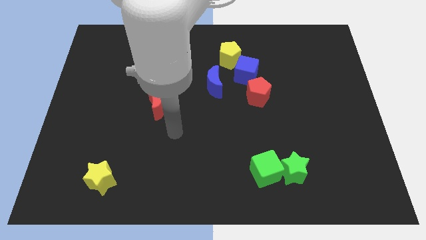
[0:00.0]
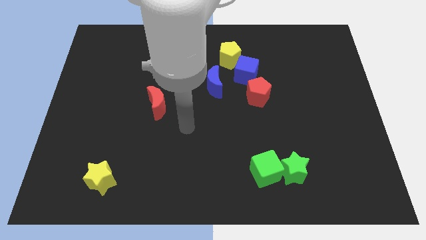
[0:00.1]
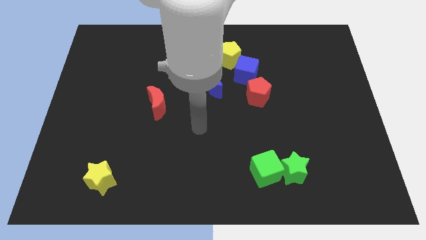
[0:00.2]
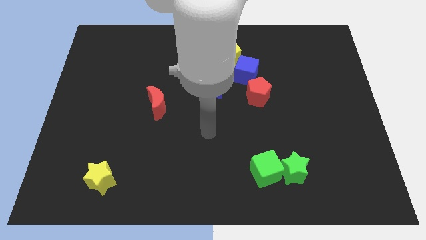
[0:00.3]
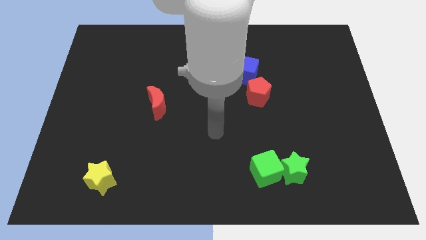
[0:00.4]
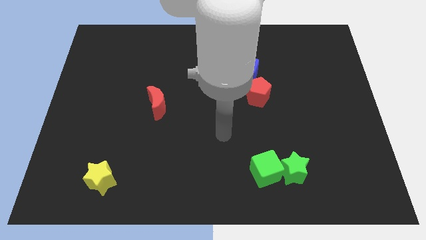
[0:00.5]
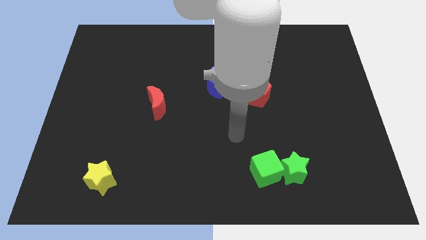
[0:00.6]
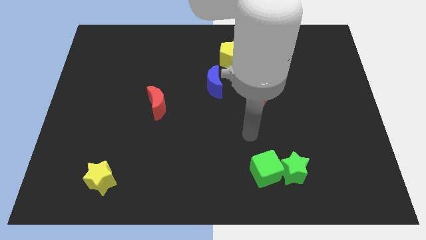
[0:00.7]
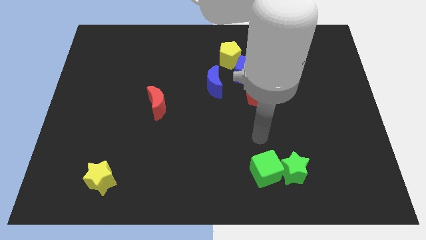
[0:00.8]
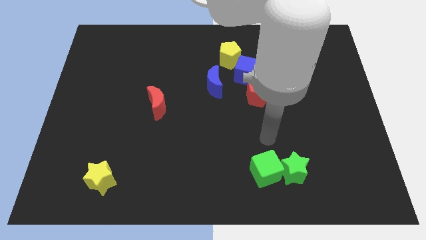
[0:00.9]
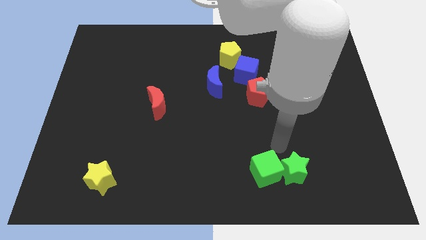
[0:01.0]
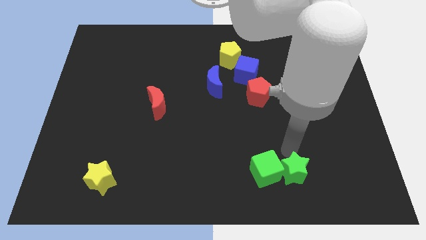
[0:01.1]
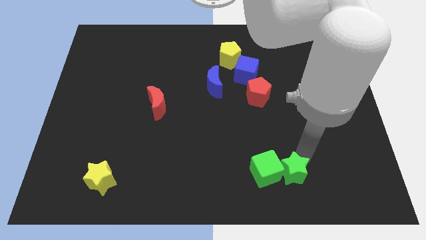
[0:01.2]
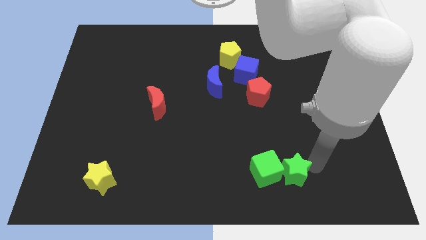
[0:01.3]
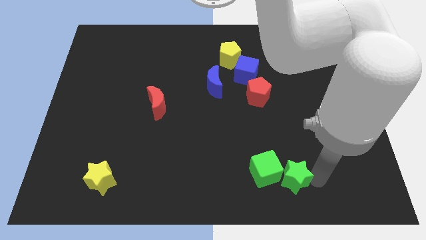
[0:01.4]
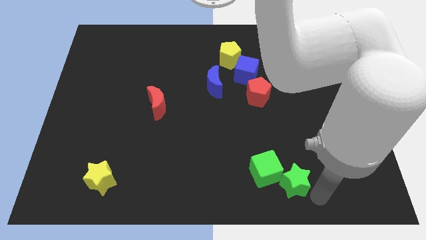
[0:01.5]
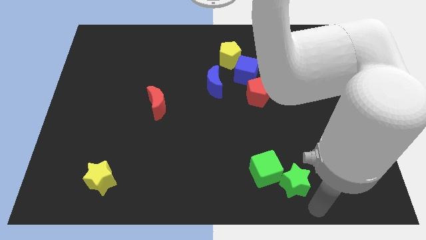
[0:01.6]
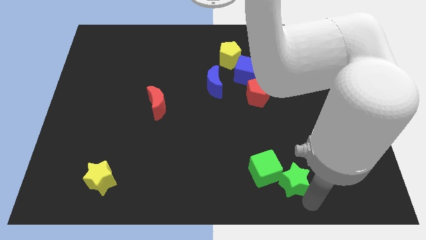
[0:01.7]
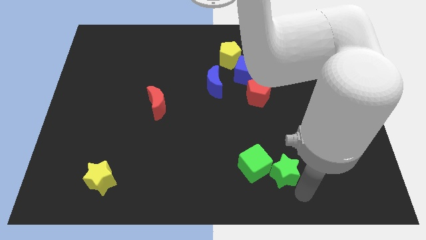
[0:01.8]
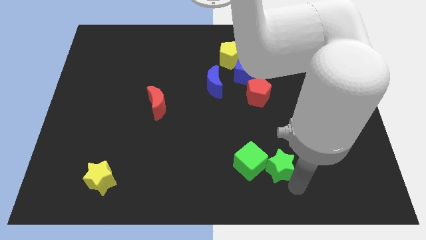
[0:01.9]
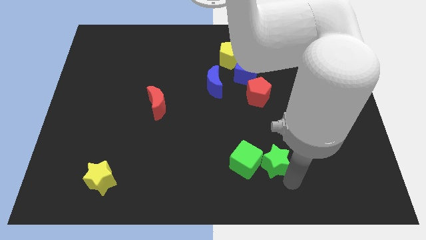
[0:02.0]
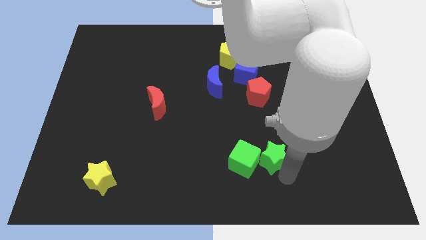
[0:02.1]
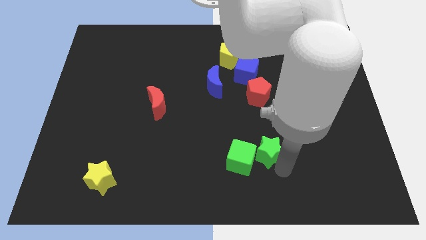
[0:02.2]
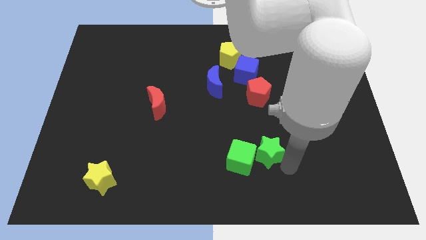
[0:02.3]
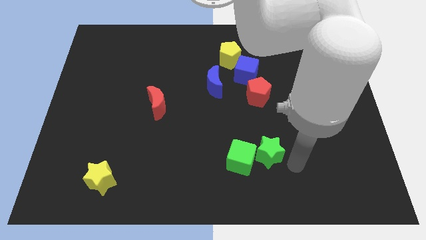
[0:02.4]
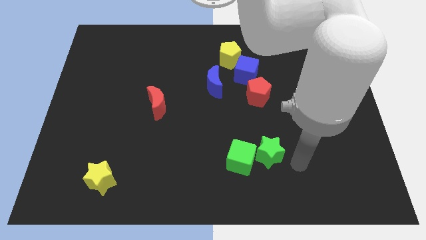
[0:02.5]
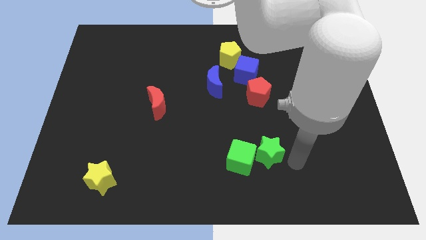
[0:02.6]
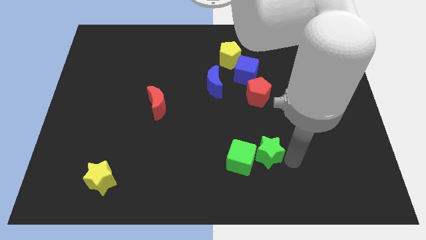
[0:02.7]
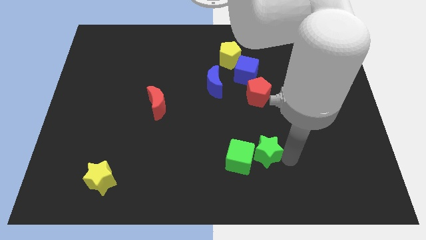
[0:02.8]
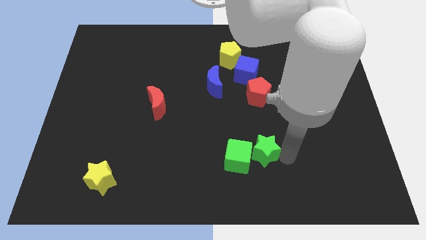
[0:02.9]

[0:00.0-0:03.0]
slide the green star upwards and then to the left a little

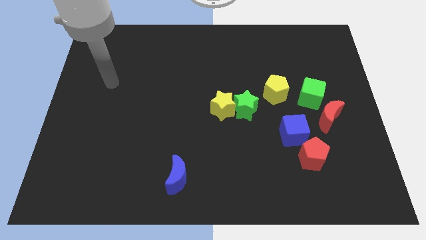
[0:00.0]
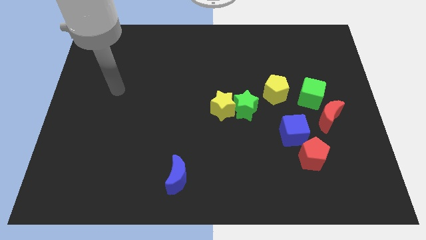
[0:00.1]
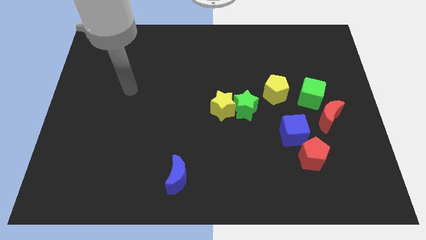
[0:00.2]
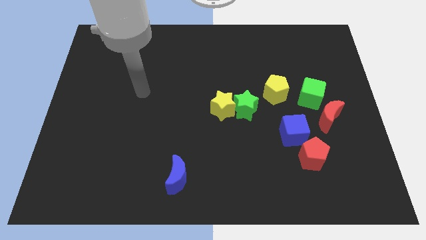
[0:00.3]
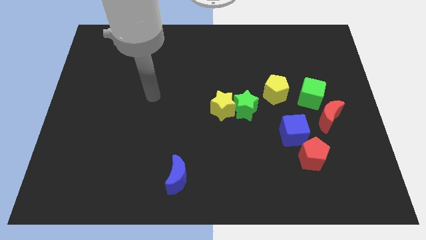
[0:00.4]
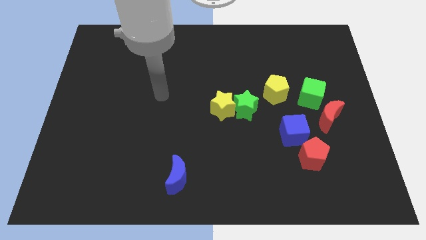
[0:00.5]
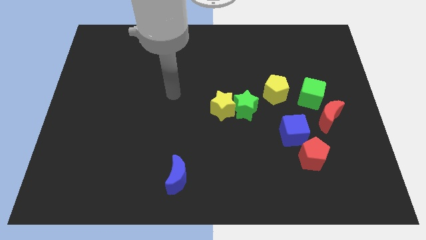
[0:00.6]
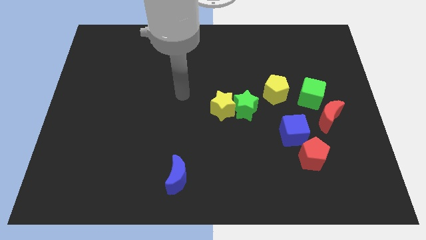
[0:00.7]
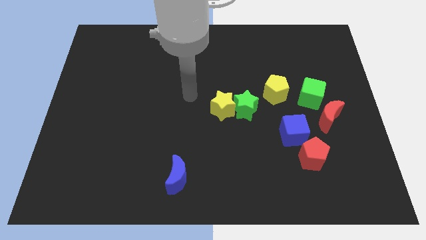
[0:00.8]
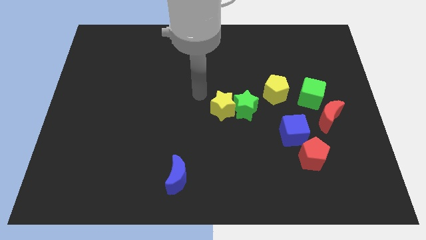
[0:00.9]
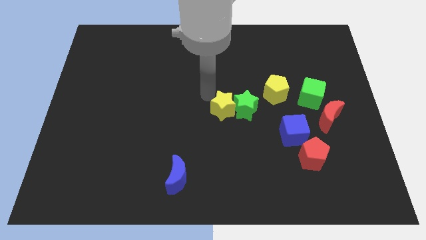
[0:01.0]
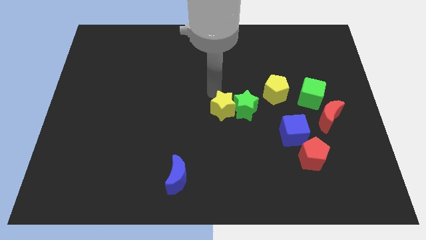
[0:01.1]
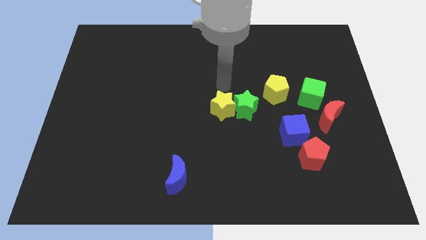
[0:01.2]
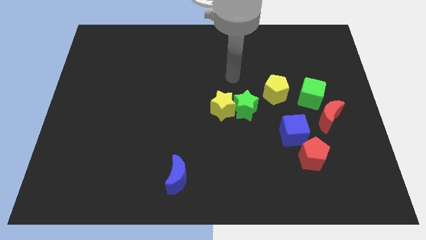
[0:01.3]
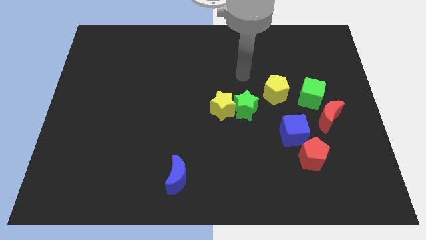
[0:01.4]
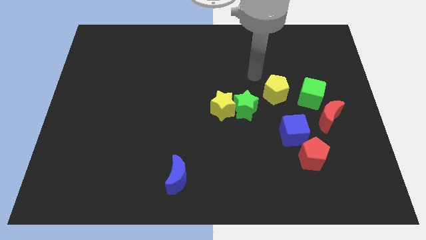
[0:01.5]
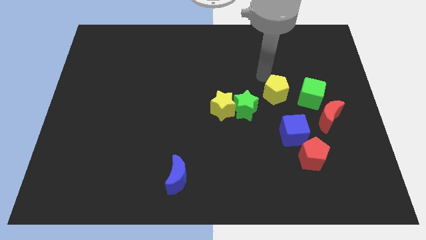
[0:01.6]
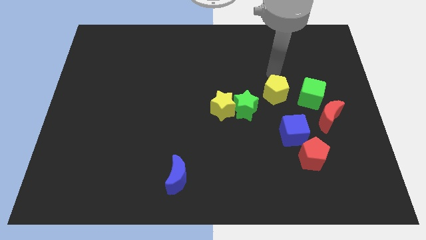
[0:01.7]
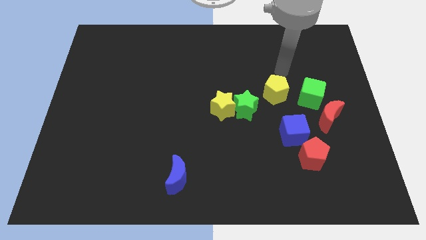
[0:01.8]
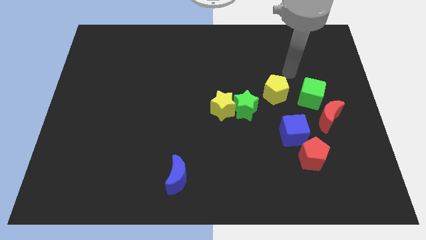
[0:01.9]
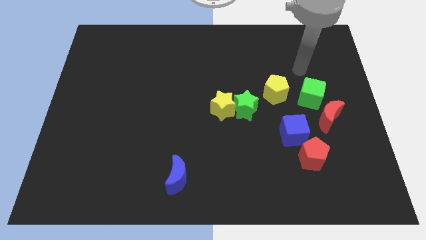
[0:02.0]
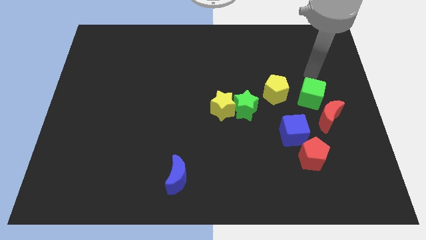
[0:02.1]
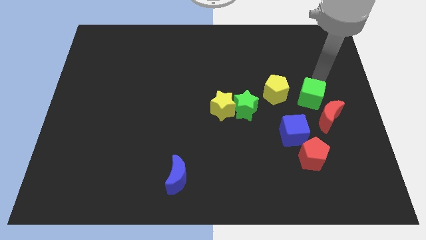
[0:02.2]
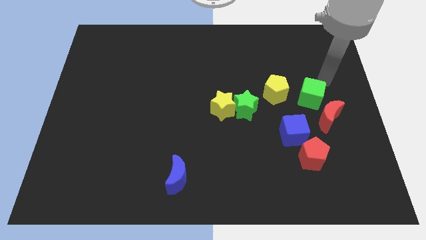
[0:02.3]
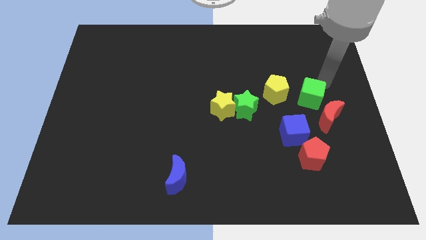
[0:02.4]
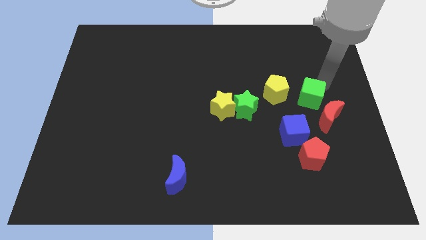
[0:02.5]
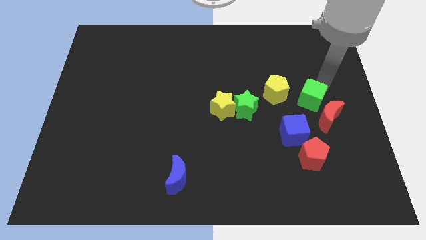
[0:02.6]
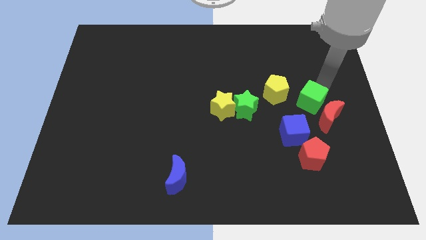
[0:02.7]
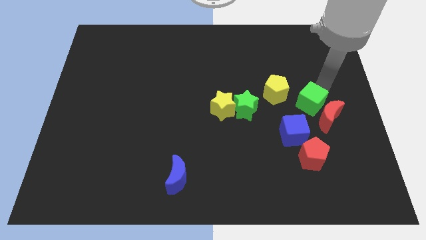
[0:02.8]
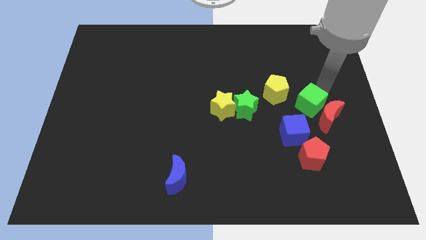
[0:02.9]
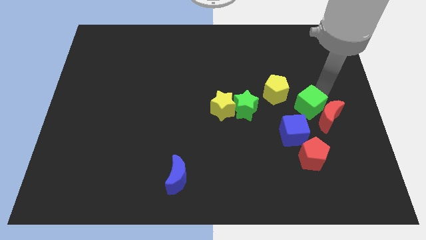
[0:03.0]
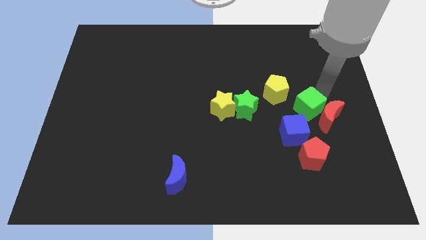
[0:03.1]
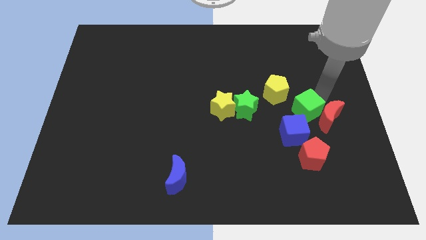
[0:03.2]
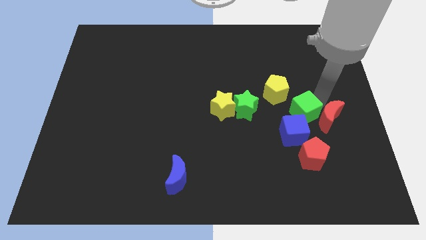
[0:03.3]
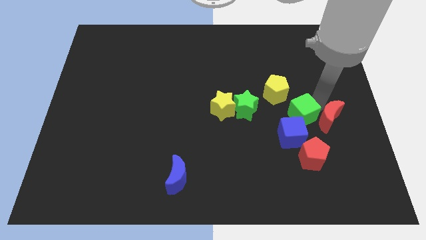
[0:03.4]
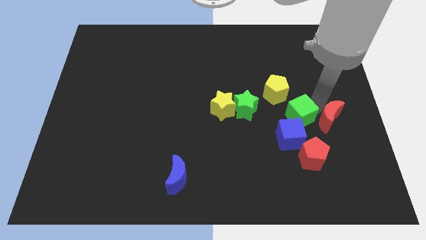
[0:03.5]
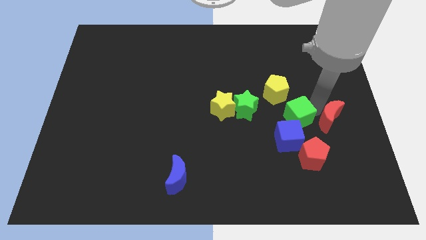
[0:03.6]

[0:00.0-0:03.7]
slightly push the green cube downwards and left

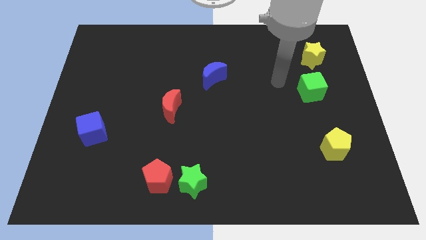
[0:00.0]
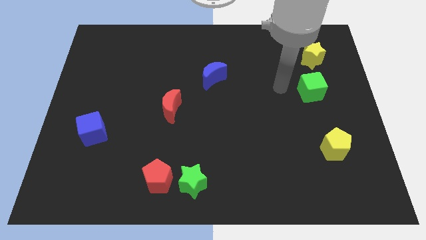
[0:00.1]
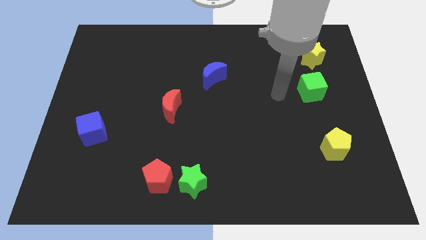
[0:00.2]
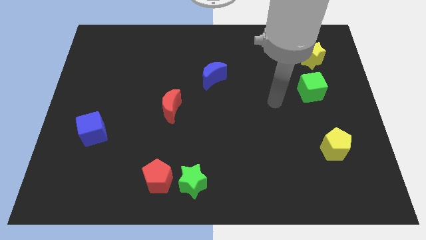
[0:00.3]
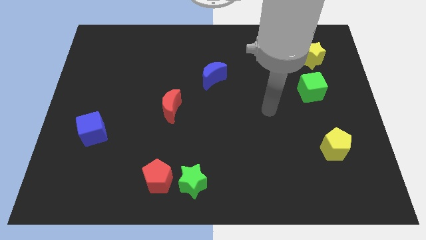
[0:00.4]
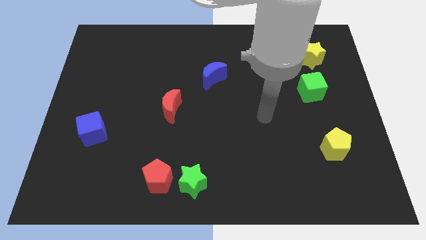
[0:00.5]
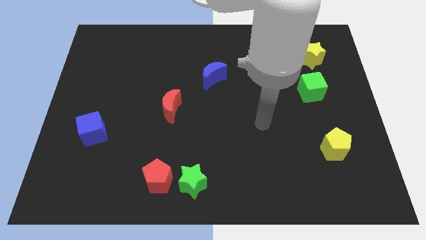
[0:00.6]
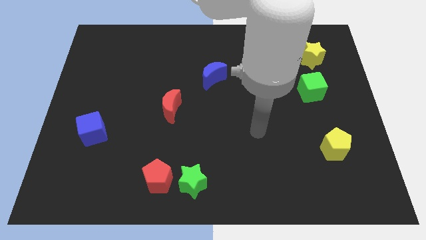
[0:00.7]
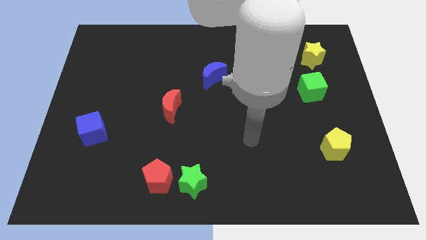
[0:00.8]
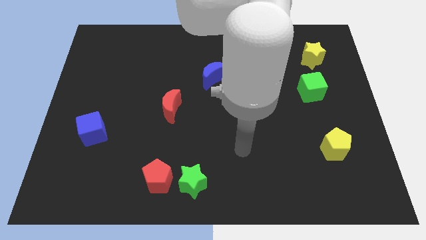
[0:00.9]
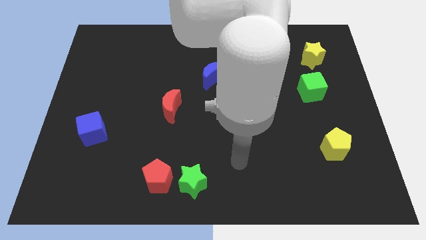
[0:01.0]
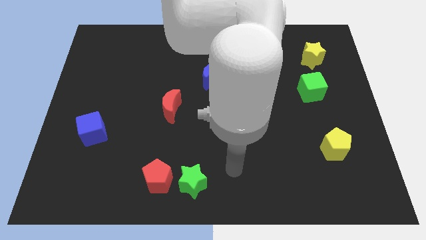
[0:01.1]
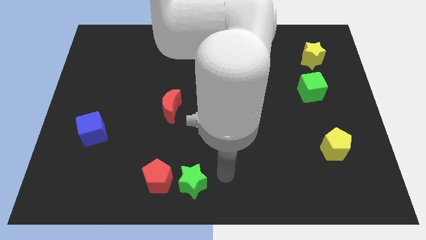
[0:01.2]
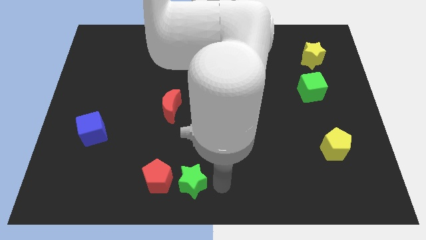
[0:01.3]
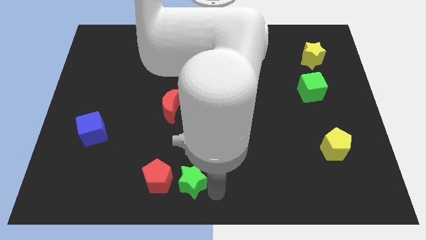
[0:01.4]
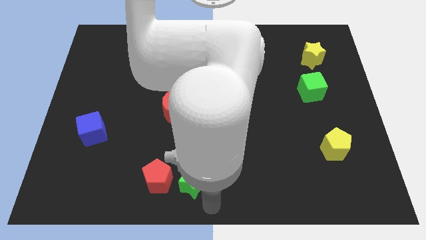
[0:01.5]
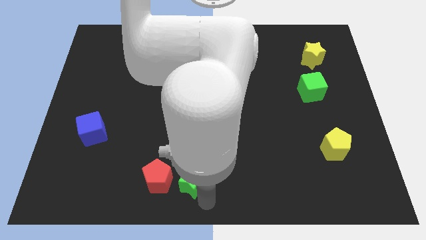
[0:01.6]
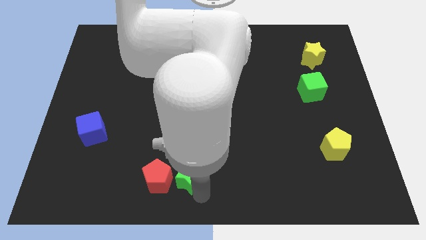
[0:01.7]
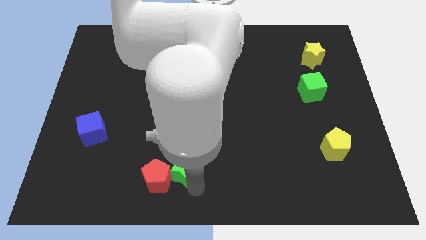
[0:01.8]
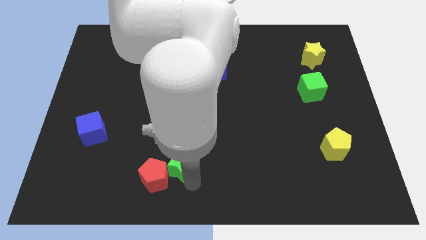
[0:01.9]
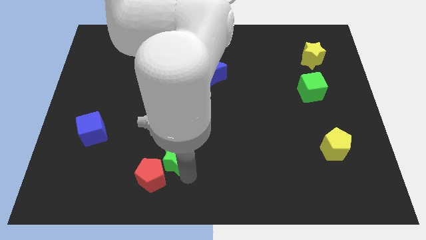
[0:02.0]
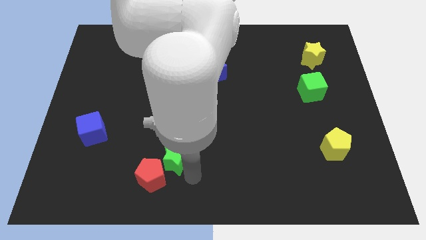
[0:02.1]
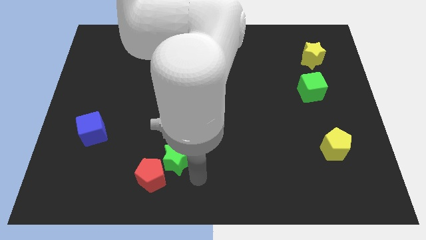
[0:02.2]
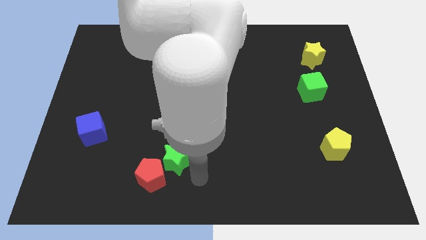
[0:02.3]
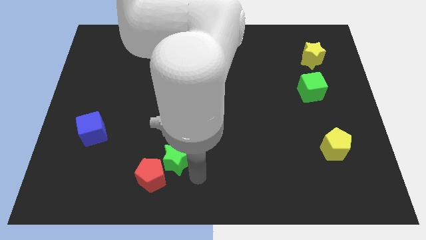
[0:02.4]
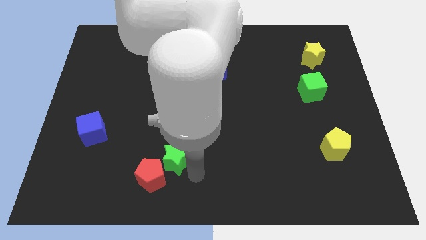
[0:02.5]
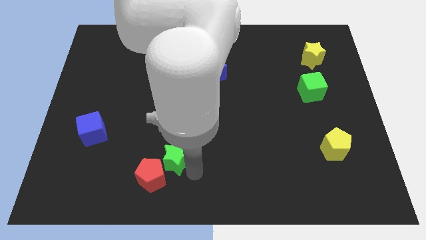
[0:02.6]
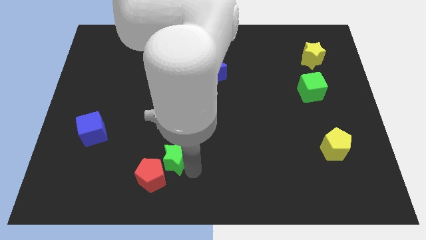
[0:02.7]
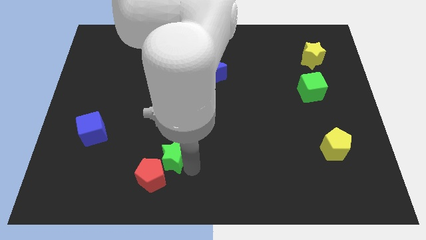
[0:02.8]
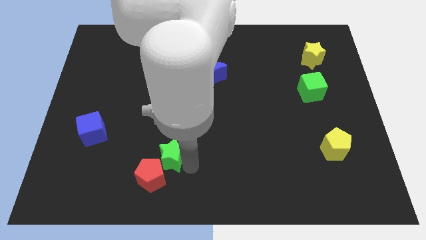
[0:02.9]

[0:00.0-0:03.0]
slightly push the green star up and then to the left
